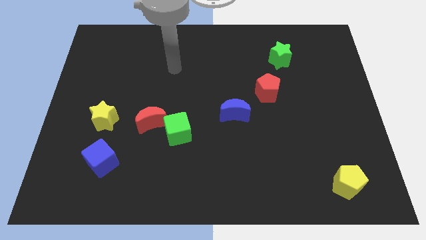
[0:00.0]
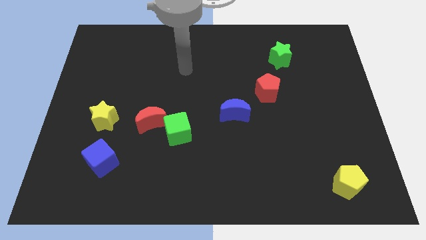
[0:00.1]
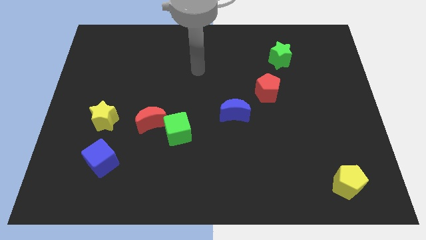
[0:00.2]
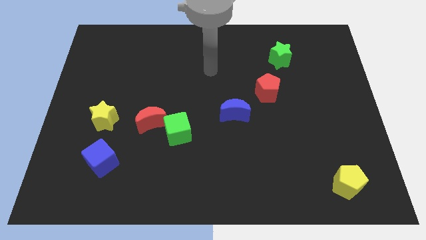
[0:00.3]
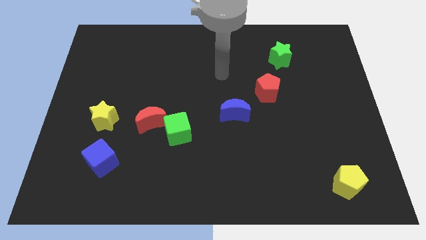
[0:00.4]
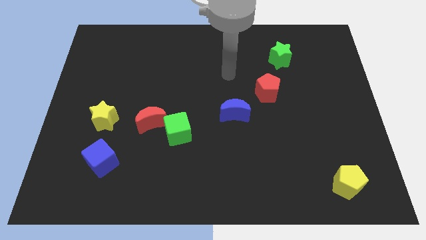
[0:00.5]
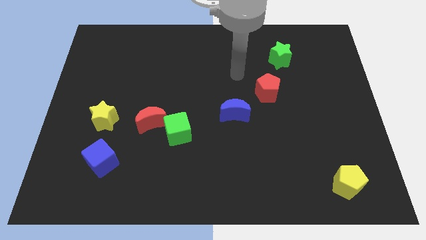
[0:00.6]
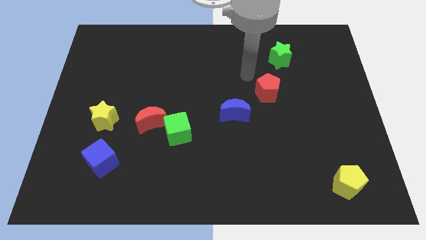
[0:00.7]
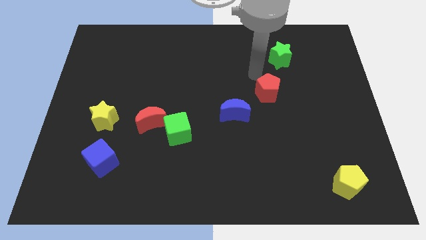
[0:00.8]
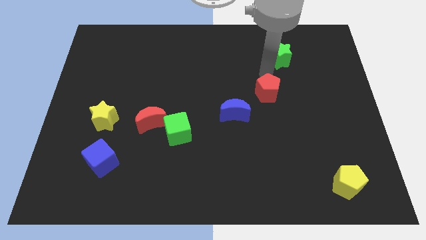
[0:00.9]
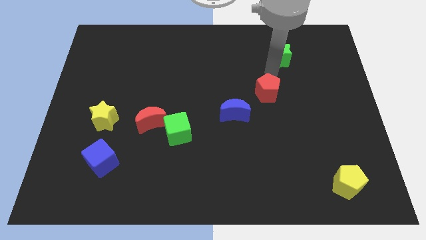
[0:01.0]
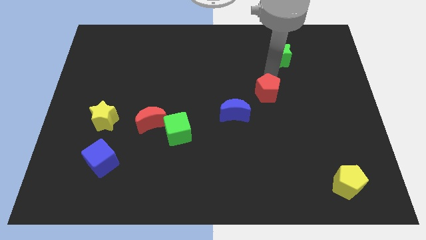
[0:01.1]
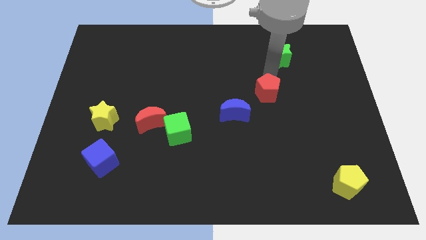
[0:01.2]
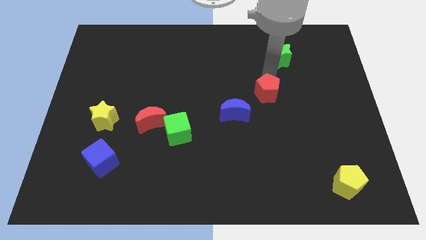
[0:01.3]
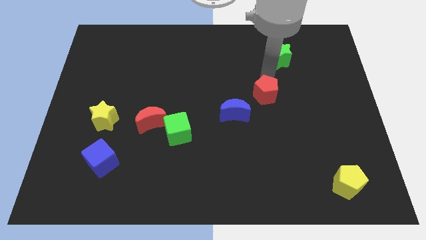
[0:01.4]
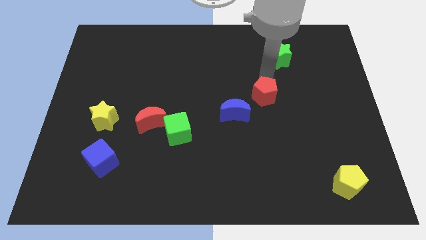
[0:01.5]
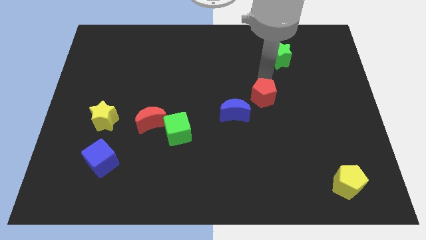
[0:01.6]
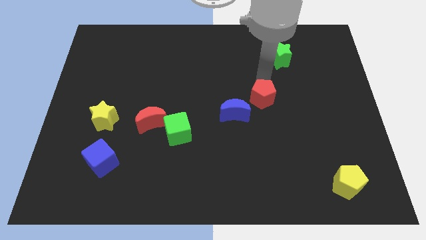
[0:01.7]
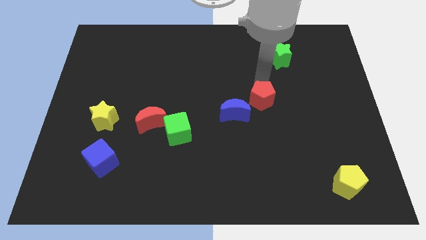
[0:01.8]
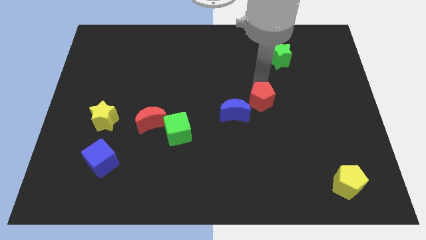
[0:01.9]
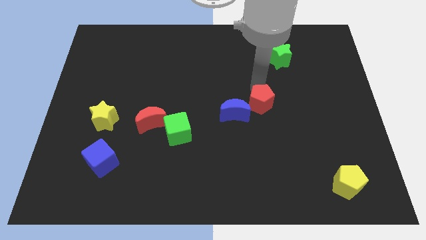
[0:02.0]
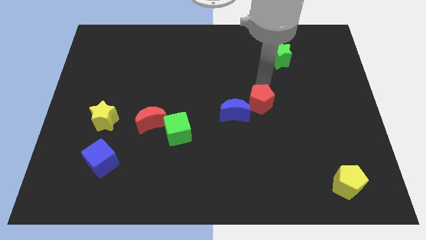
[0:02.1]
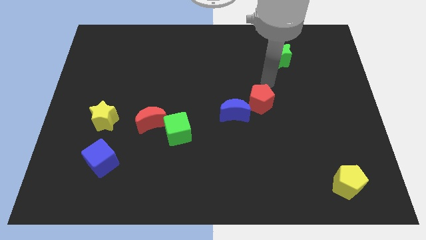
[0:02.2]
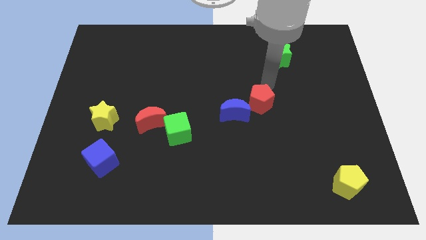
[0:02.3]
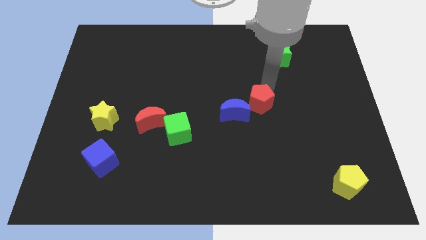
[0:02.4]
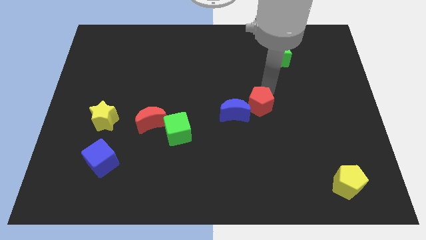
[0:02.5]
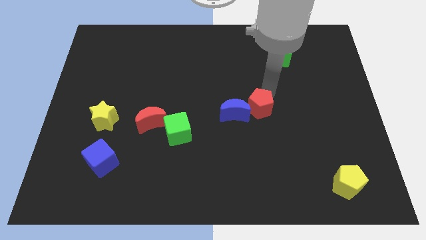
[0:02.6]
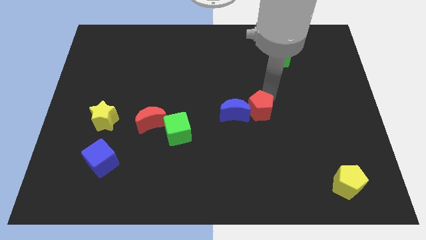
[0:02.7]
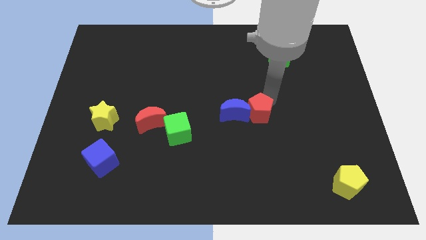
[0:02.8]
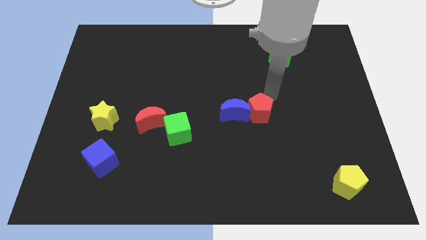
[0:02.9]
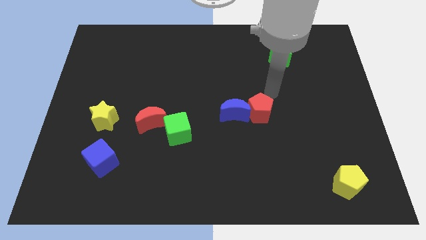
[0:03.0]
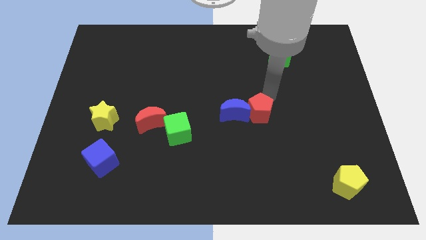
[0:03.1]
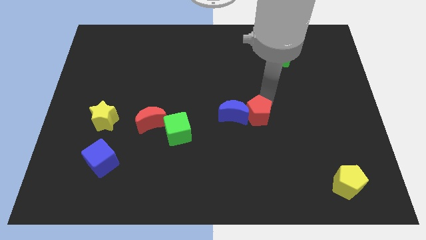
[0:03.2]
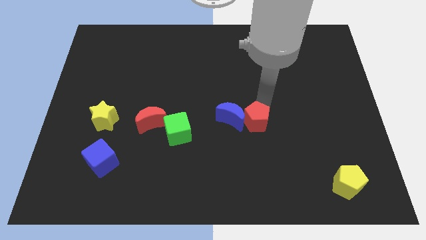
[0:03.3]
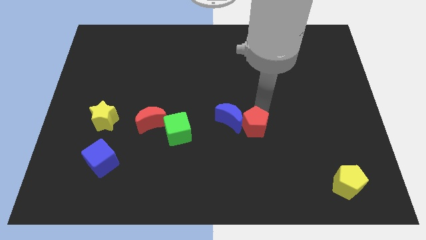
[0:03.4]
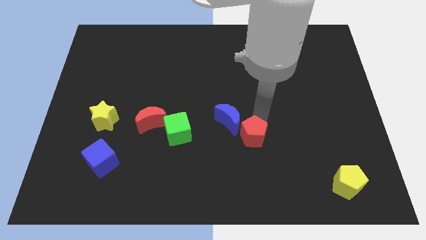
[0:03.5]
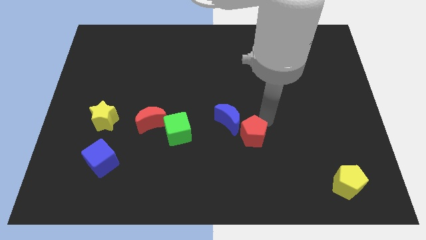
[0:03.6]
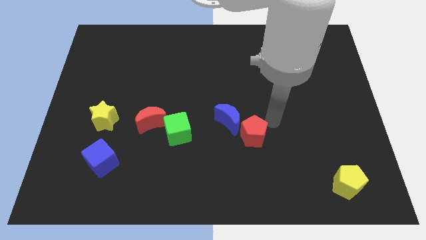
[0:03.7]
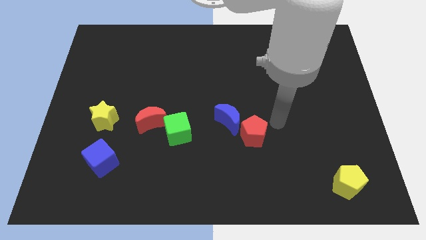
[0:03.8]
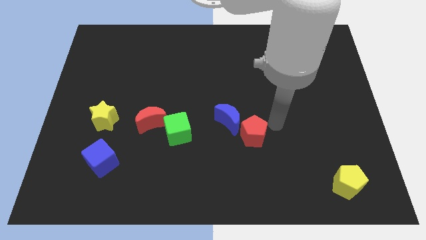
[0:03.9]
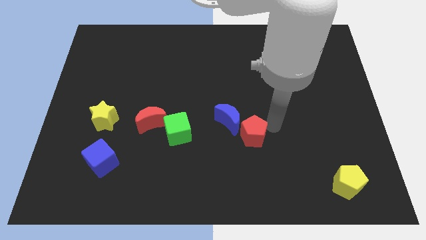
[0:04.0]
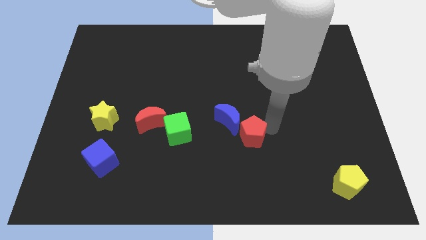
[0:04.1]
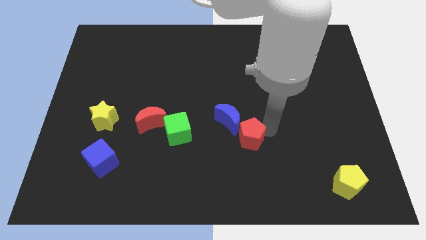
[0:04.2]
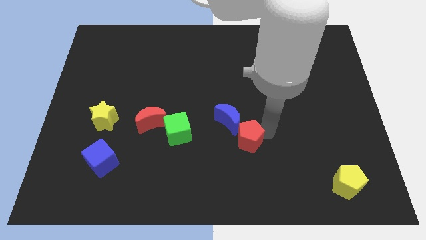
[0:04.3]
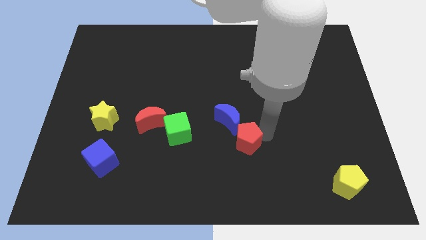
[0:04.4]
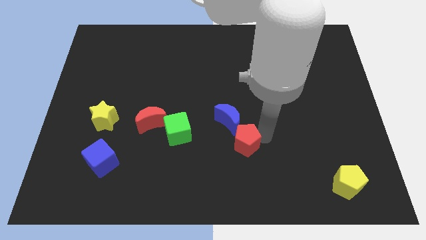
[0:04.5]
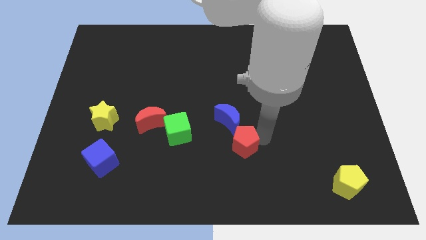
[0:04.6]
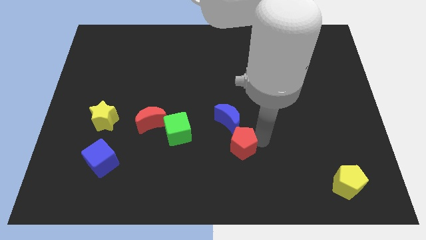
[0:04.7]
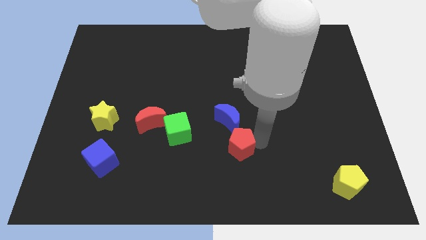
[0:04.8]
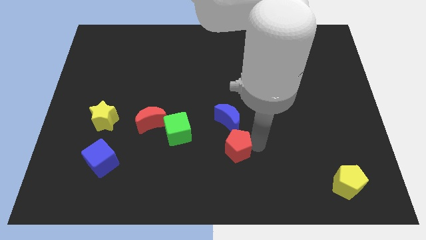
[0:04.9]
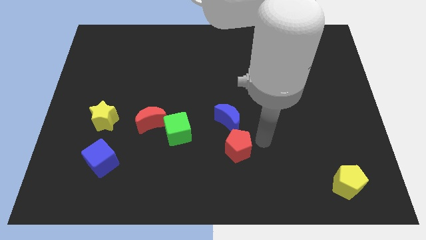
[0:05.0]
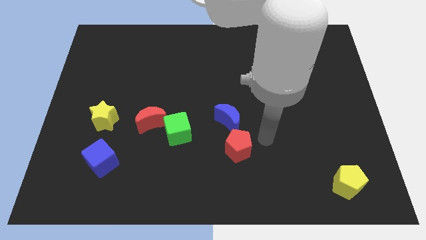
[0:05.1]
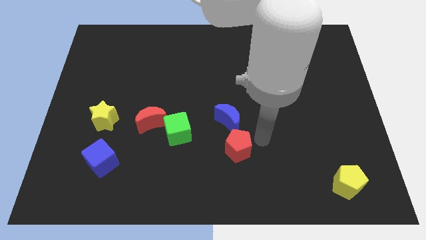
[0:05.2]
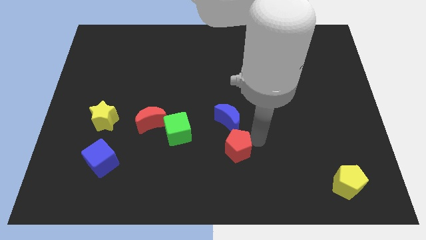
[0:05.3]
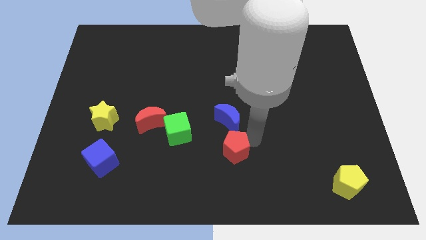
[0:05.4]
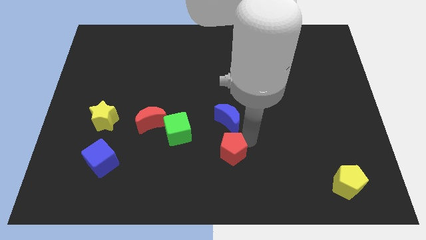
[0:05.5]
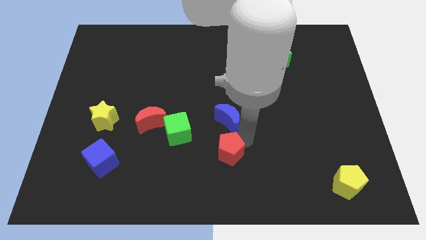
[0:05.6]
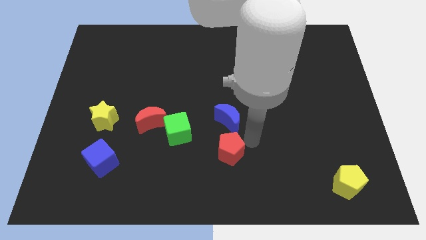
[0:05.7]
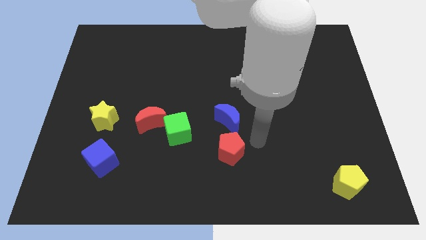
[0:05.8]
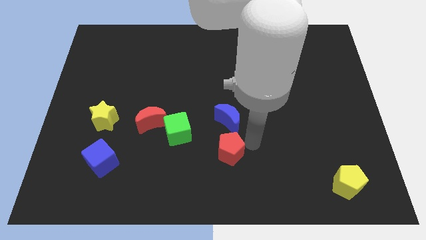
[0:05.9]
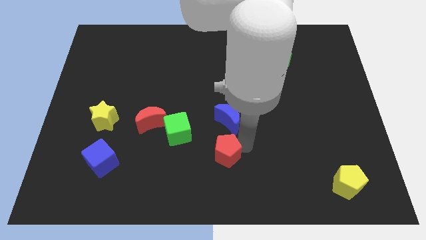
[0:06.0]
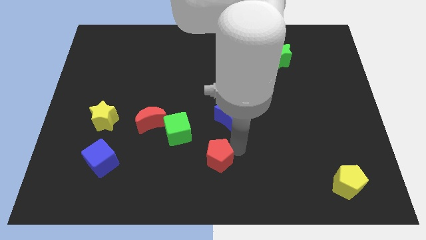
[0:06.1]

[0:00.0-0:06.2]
push the red pentagon down and then to the left

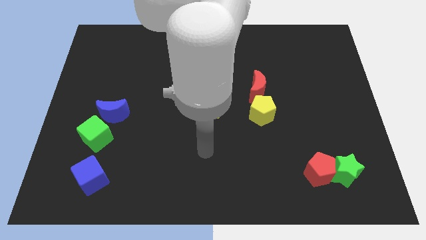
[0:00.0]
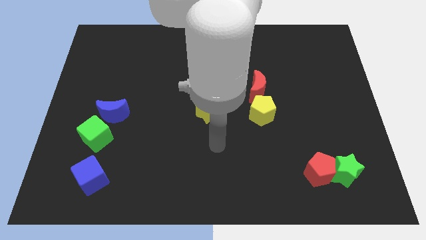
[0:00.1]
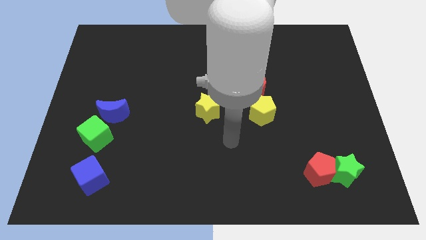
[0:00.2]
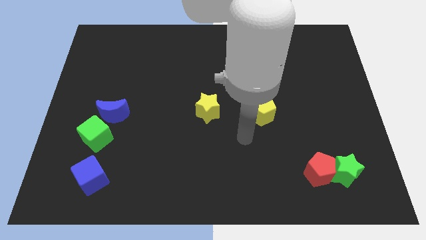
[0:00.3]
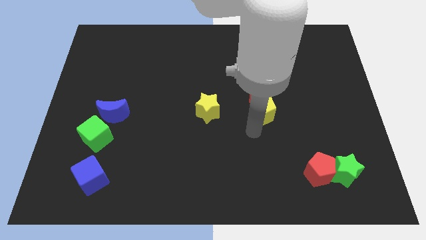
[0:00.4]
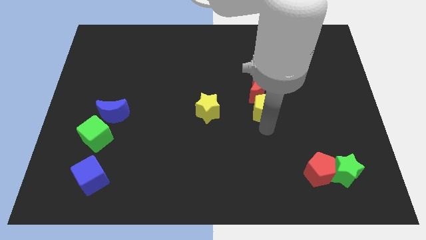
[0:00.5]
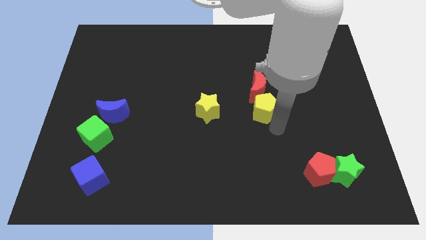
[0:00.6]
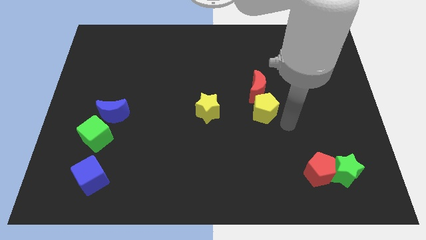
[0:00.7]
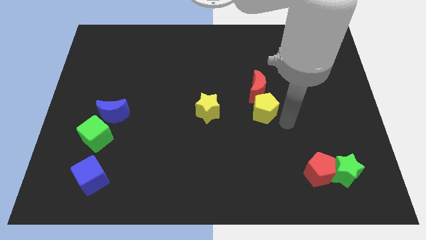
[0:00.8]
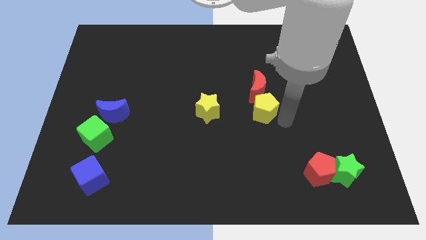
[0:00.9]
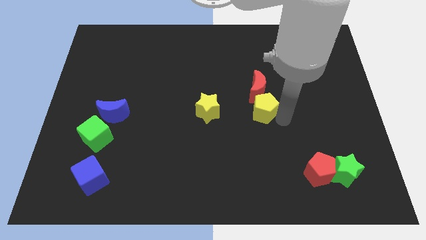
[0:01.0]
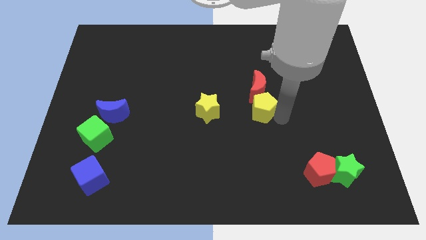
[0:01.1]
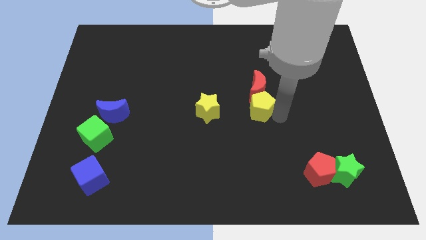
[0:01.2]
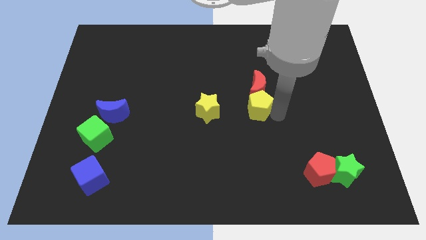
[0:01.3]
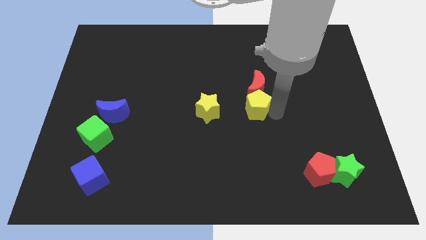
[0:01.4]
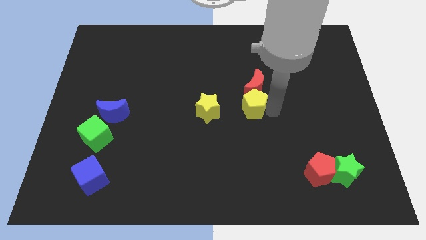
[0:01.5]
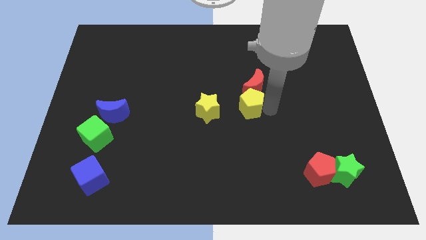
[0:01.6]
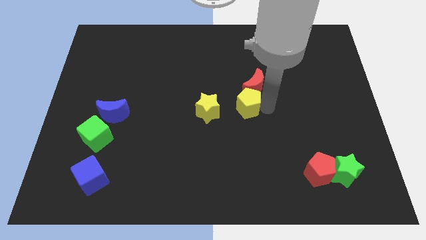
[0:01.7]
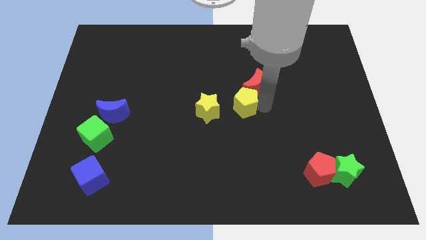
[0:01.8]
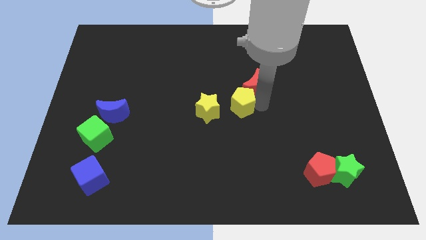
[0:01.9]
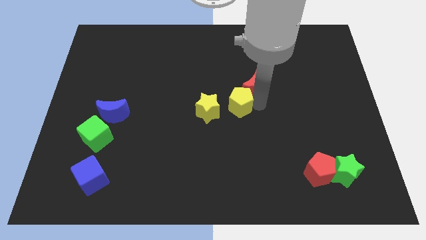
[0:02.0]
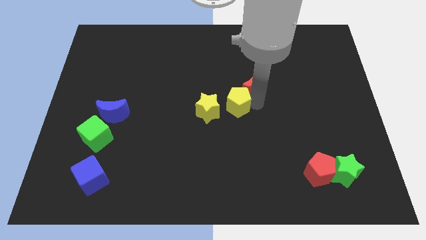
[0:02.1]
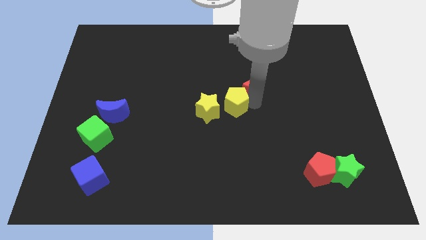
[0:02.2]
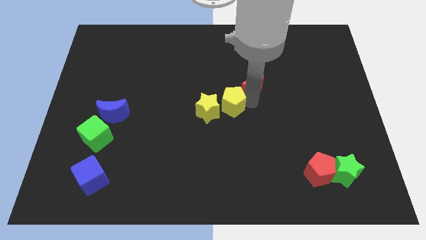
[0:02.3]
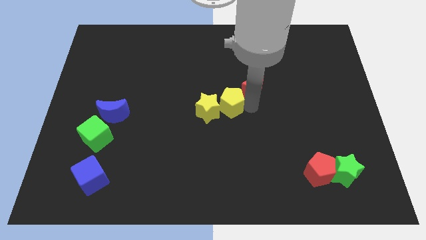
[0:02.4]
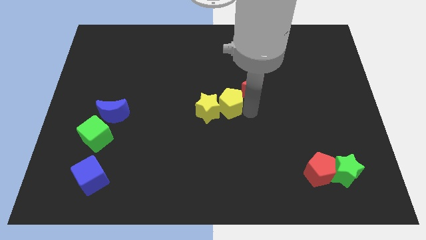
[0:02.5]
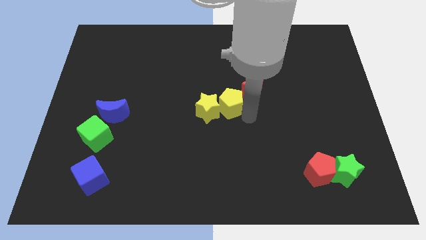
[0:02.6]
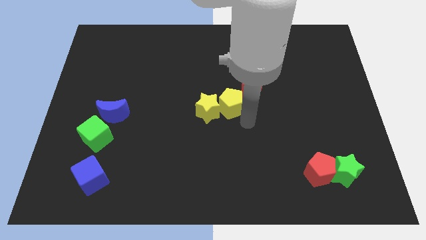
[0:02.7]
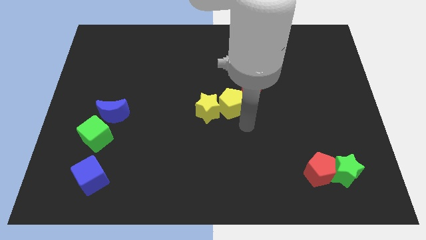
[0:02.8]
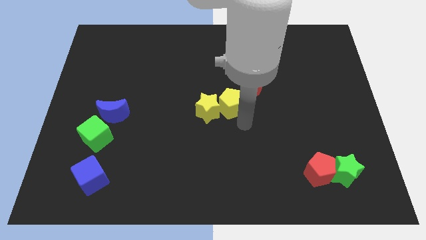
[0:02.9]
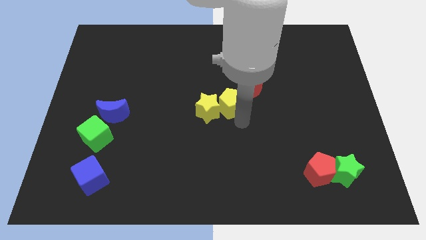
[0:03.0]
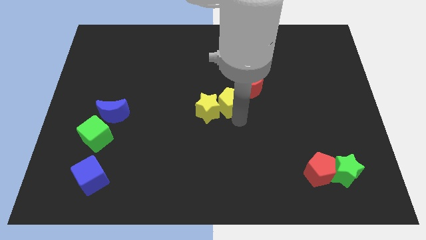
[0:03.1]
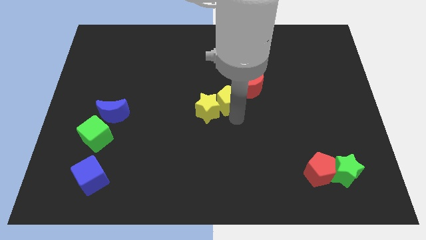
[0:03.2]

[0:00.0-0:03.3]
push the yellow pentagon a little diagonally up and left
